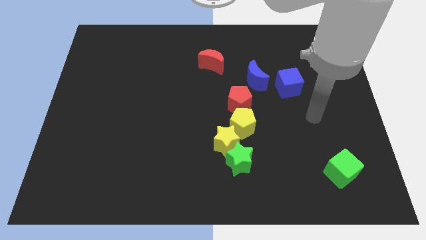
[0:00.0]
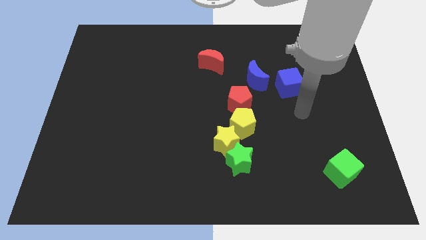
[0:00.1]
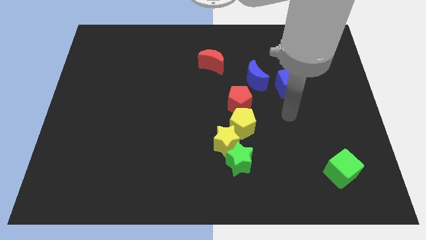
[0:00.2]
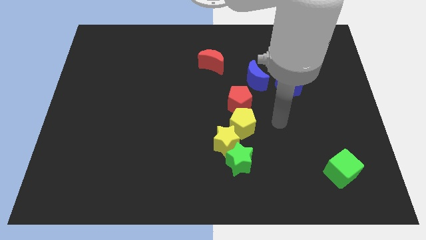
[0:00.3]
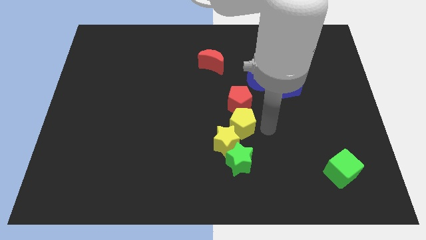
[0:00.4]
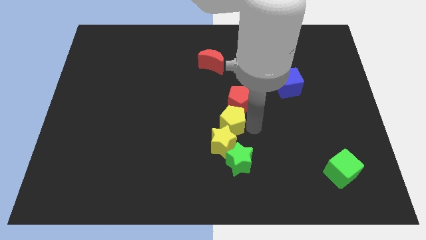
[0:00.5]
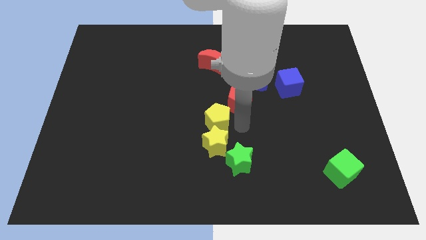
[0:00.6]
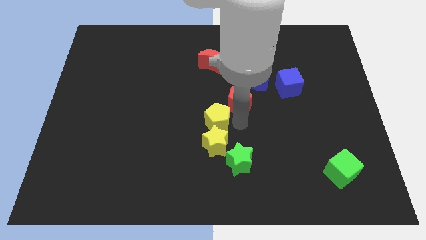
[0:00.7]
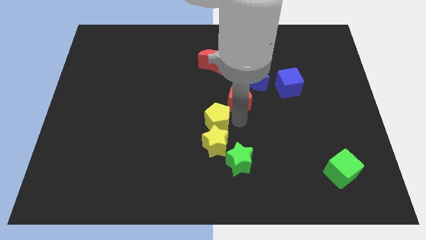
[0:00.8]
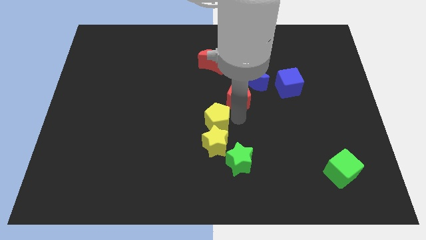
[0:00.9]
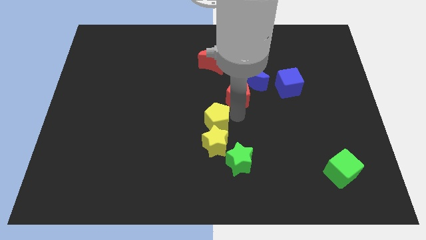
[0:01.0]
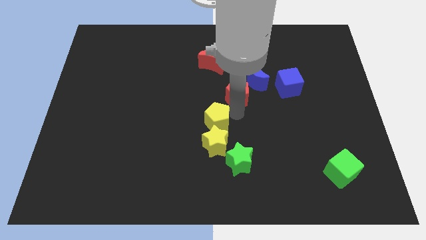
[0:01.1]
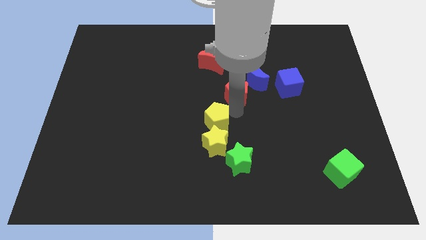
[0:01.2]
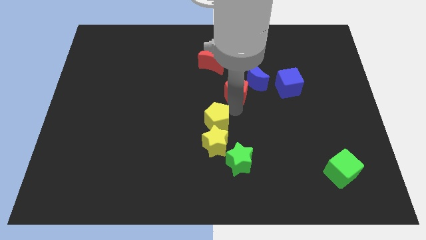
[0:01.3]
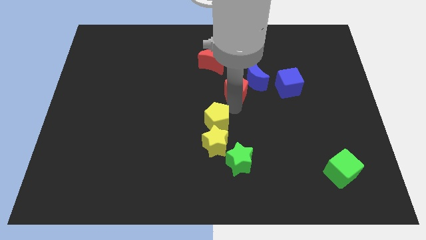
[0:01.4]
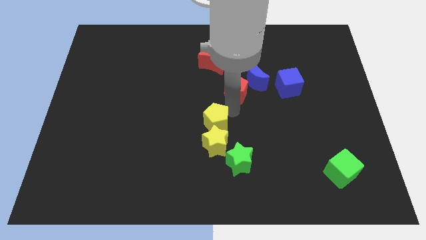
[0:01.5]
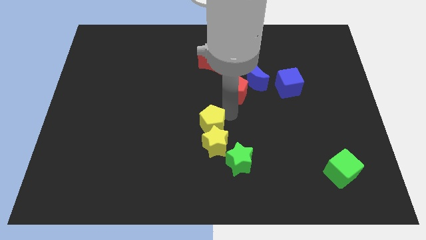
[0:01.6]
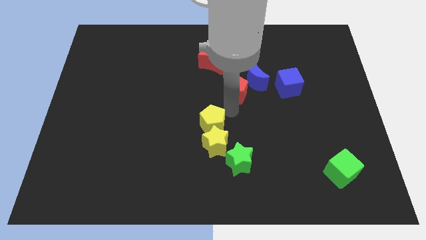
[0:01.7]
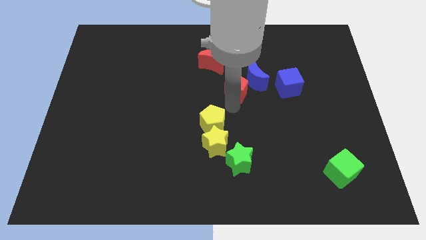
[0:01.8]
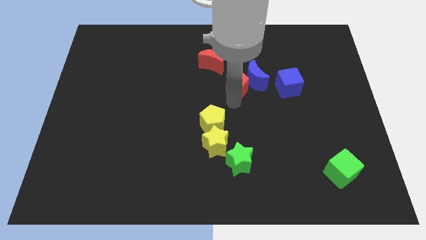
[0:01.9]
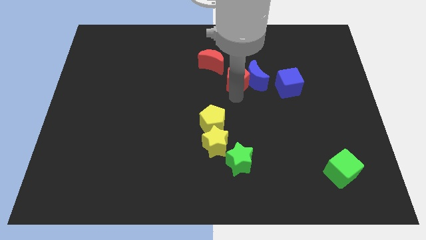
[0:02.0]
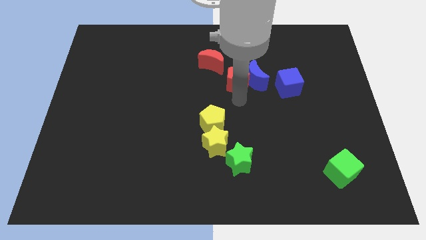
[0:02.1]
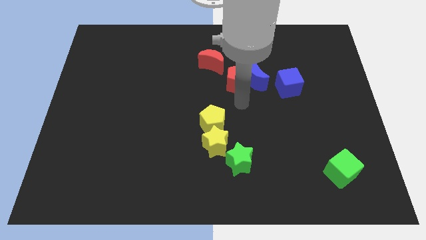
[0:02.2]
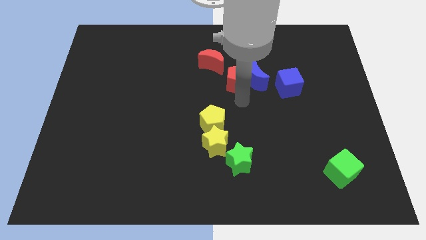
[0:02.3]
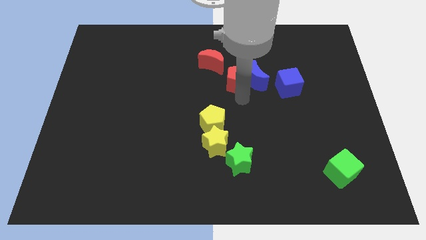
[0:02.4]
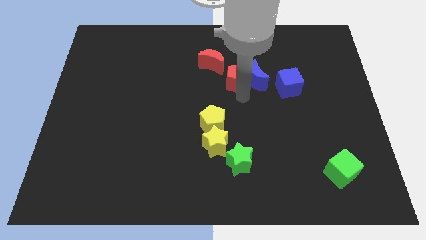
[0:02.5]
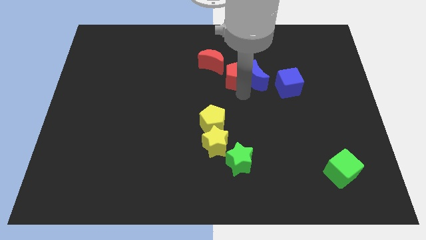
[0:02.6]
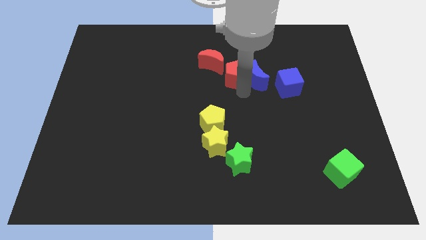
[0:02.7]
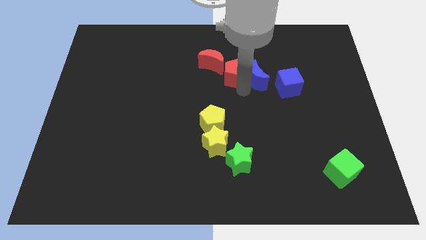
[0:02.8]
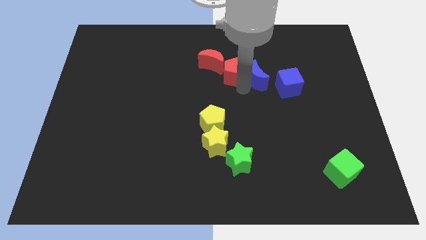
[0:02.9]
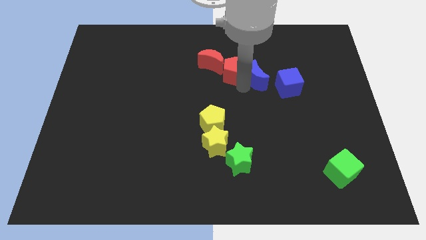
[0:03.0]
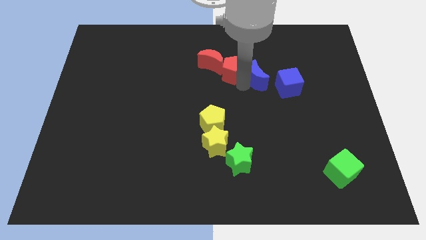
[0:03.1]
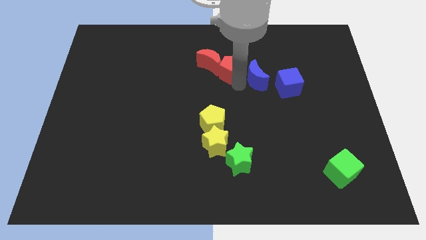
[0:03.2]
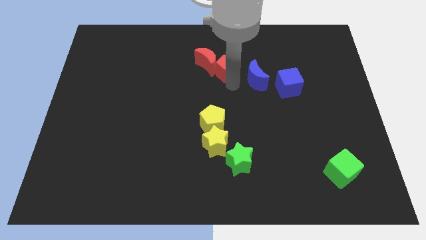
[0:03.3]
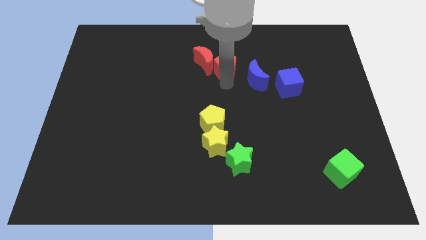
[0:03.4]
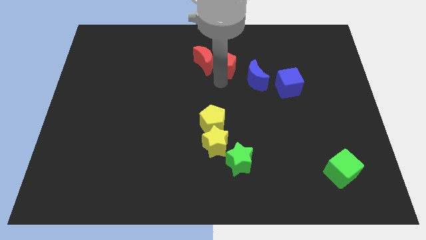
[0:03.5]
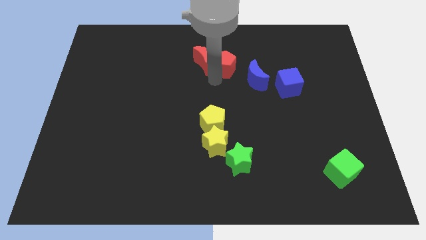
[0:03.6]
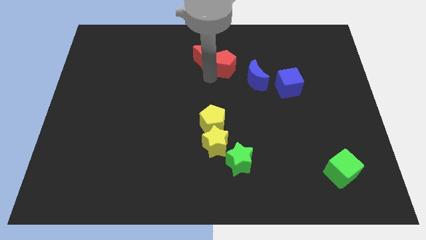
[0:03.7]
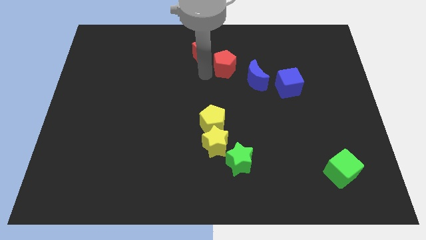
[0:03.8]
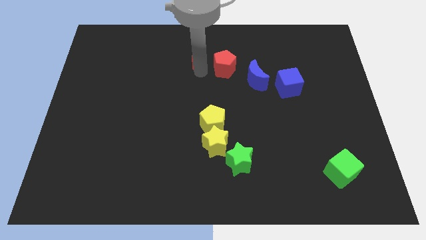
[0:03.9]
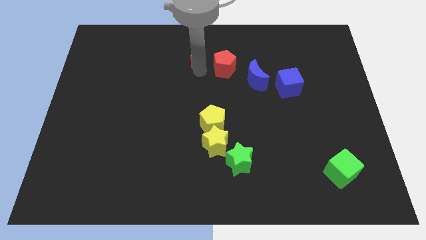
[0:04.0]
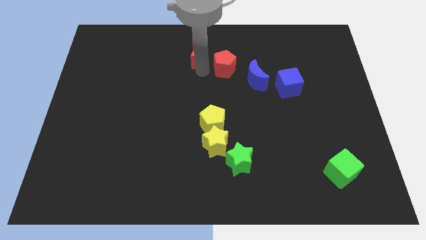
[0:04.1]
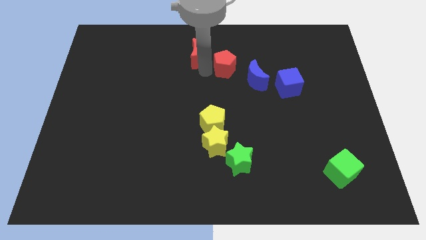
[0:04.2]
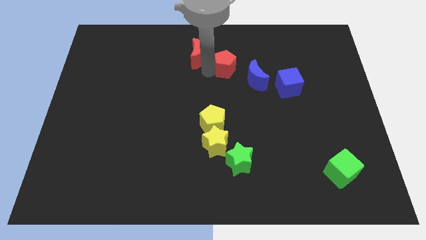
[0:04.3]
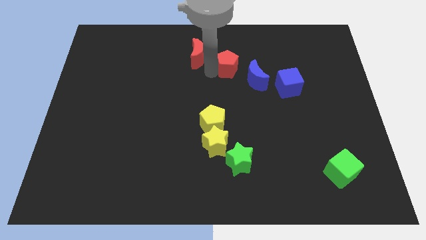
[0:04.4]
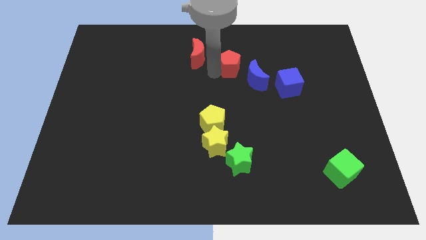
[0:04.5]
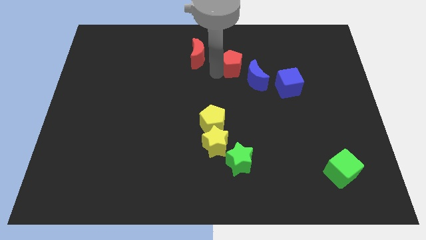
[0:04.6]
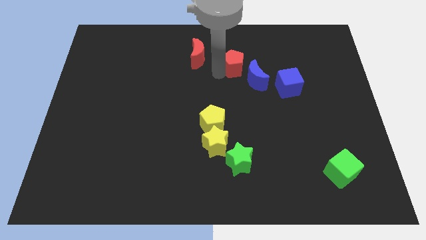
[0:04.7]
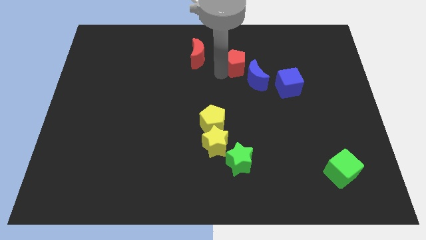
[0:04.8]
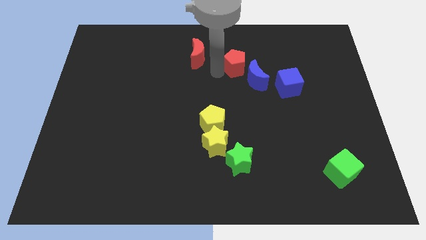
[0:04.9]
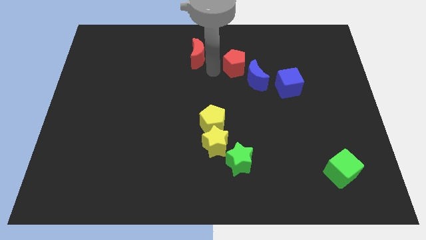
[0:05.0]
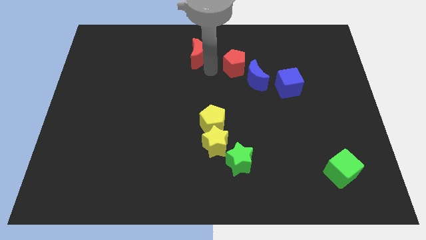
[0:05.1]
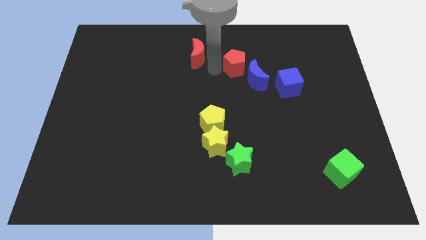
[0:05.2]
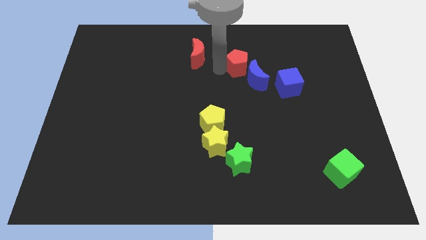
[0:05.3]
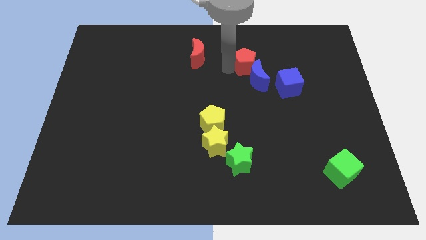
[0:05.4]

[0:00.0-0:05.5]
push the red pentagon somewhat upwards and right diagonally

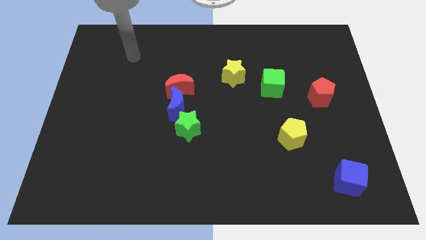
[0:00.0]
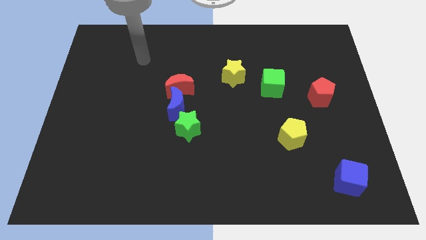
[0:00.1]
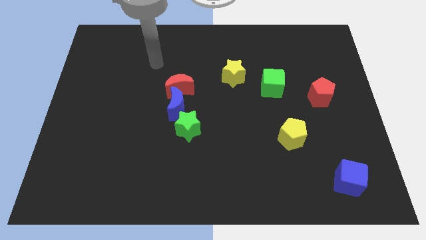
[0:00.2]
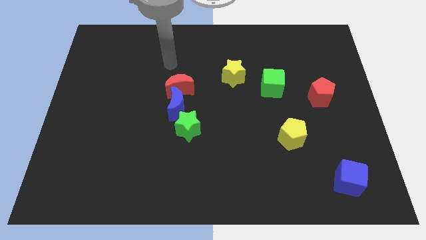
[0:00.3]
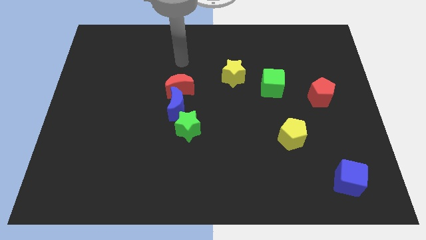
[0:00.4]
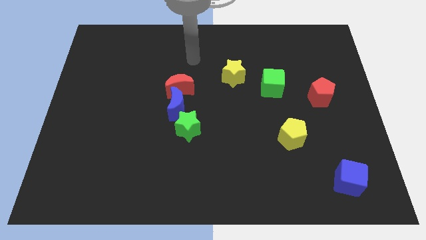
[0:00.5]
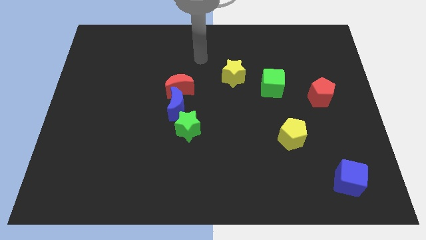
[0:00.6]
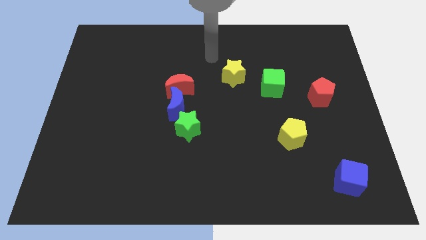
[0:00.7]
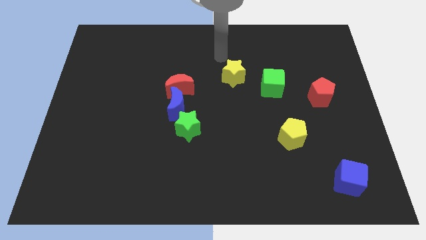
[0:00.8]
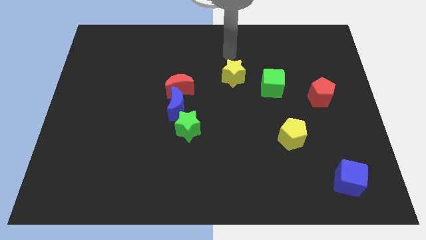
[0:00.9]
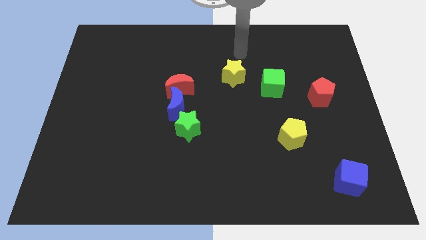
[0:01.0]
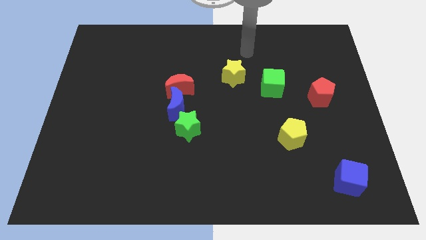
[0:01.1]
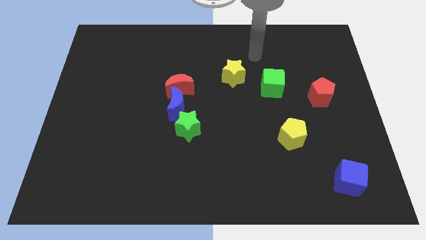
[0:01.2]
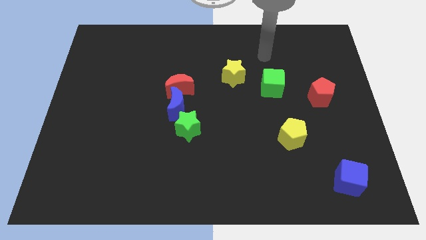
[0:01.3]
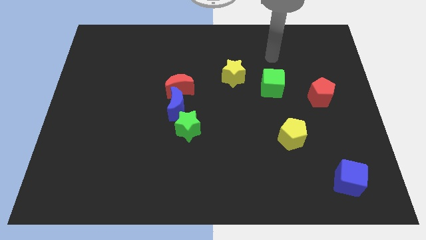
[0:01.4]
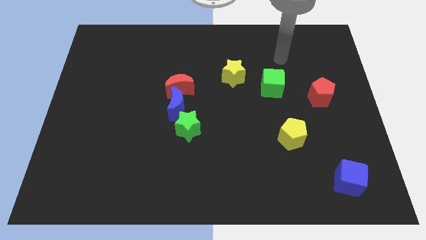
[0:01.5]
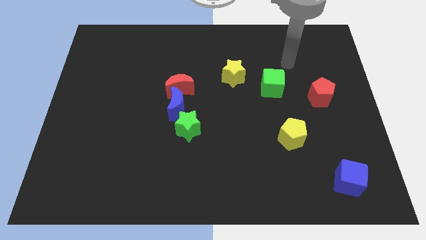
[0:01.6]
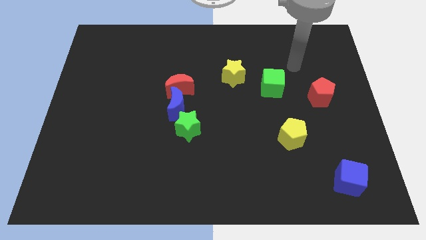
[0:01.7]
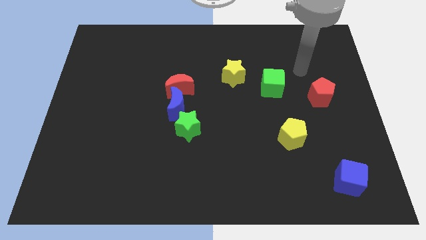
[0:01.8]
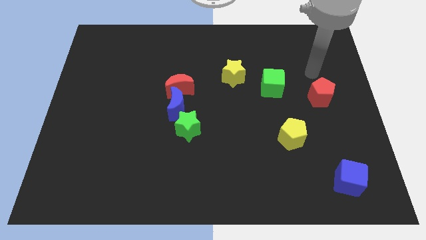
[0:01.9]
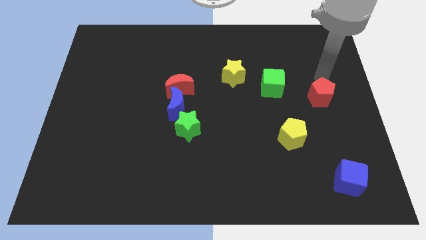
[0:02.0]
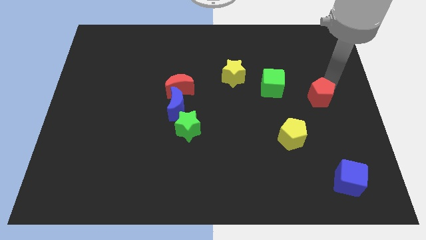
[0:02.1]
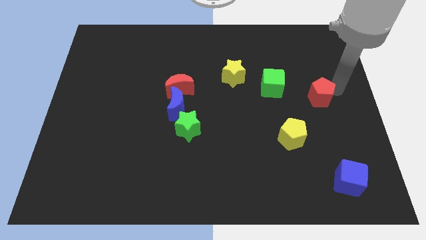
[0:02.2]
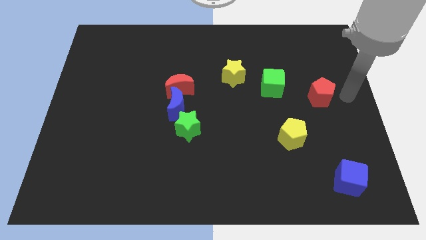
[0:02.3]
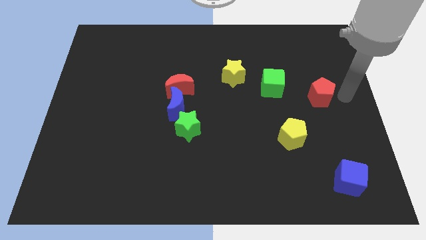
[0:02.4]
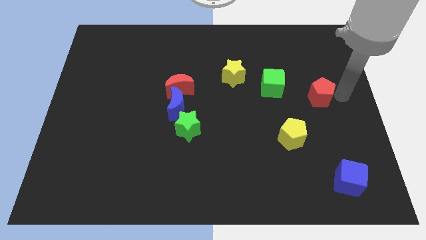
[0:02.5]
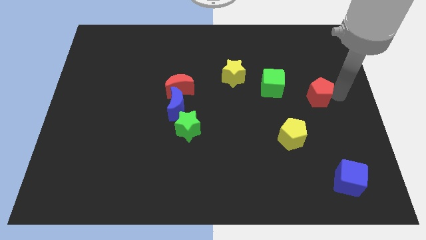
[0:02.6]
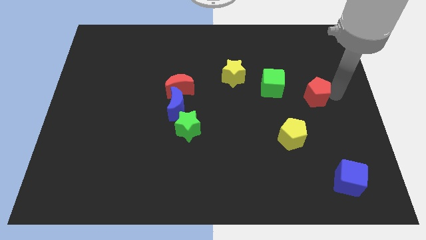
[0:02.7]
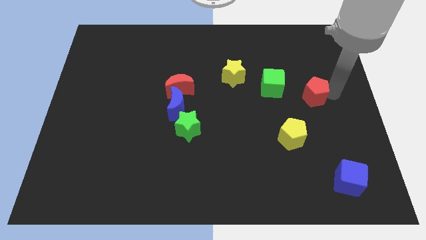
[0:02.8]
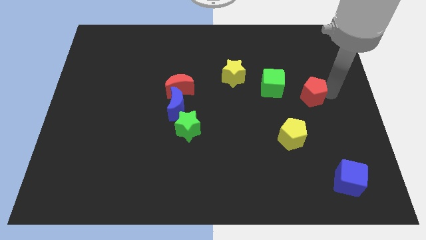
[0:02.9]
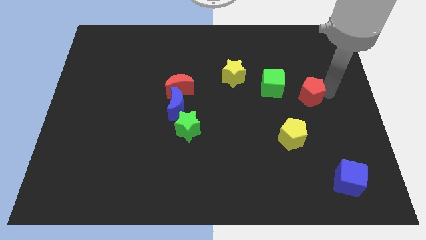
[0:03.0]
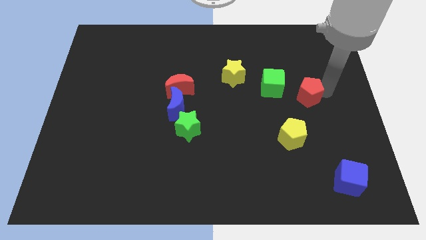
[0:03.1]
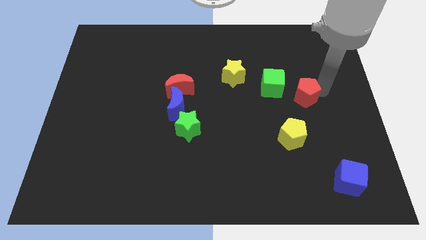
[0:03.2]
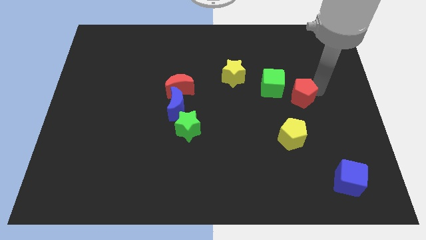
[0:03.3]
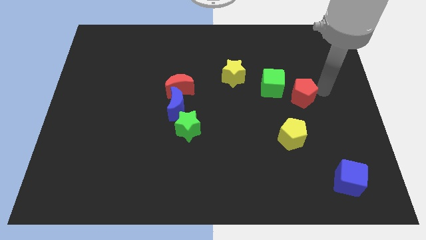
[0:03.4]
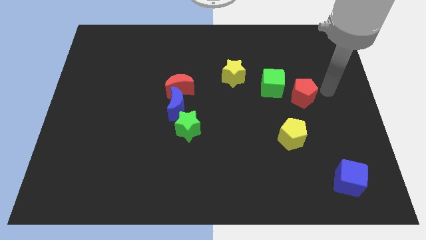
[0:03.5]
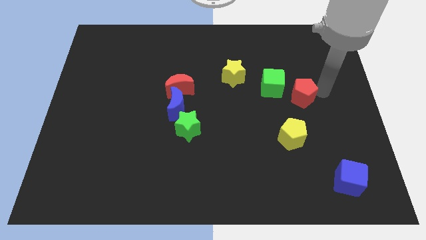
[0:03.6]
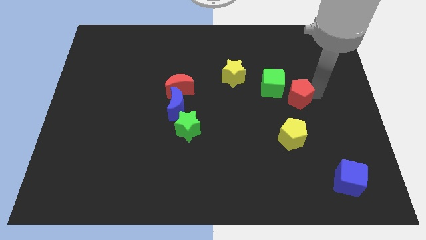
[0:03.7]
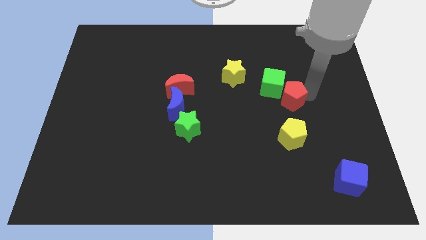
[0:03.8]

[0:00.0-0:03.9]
move the red pentagon a bit left
